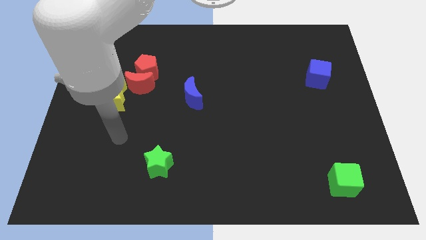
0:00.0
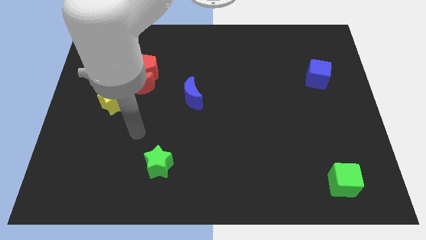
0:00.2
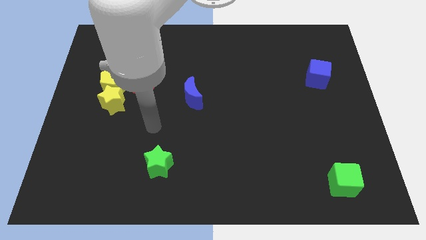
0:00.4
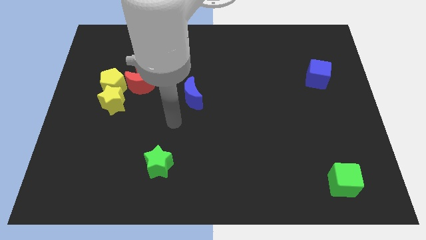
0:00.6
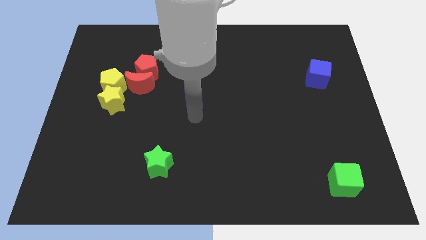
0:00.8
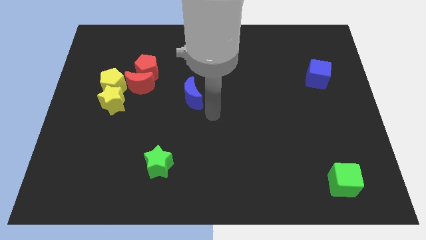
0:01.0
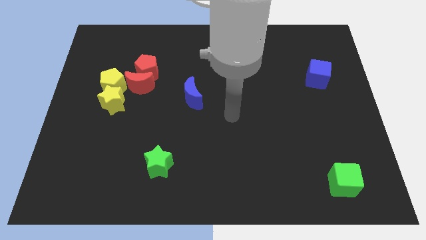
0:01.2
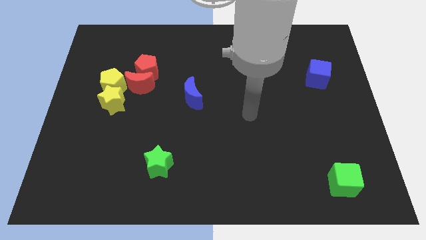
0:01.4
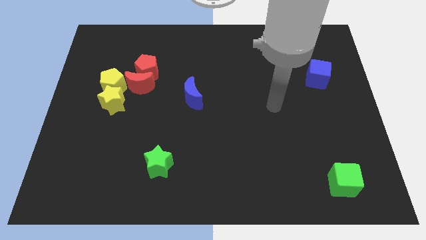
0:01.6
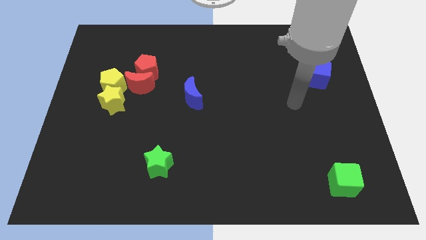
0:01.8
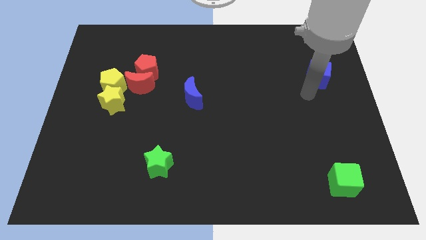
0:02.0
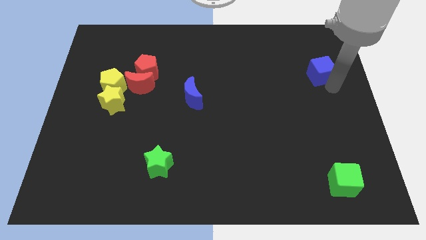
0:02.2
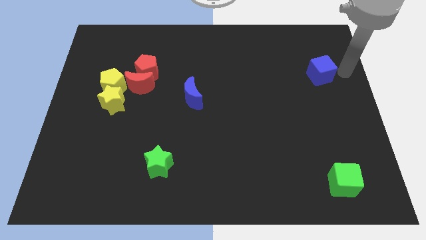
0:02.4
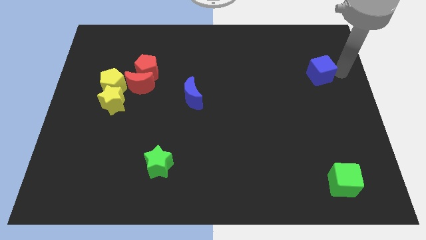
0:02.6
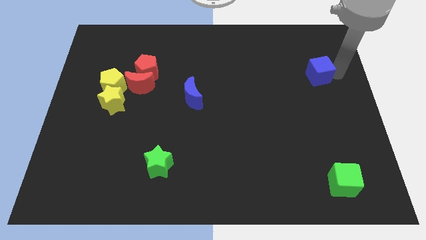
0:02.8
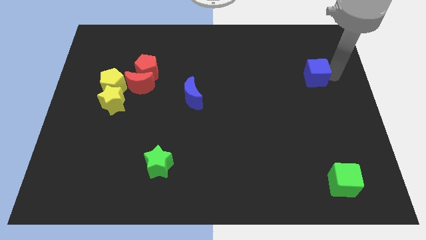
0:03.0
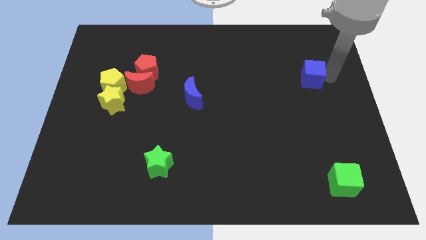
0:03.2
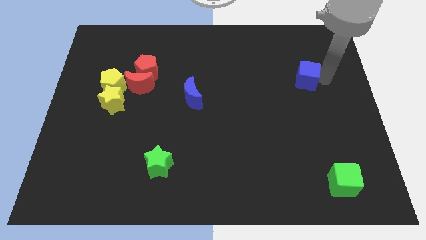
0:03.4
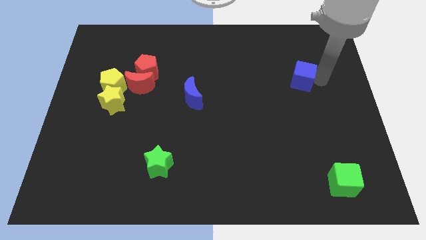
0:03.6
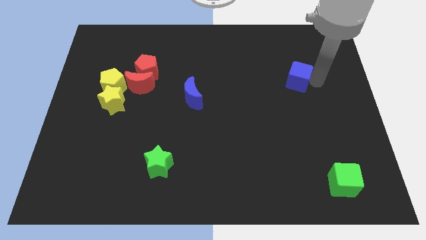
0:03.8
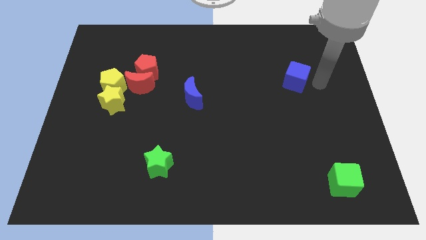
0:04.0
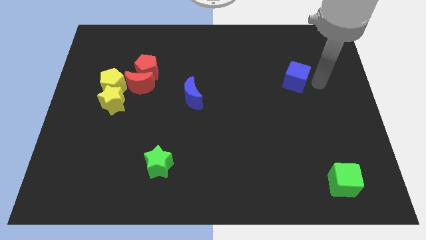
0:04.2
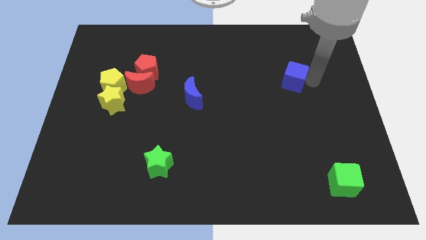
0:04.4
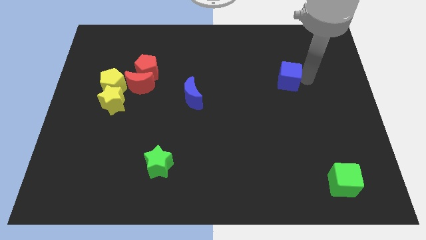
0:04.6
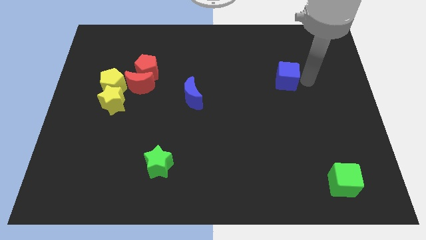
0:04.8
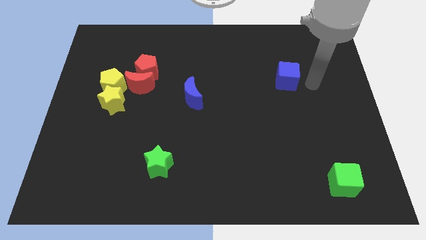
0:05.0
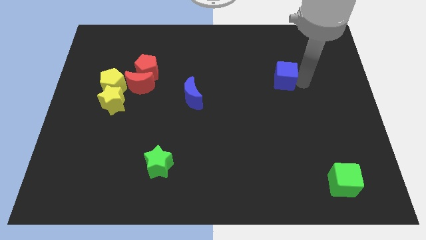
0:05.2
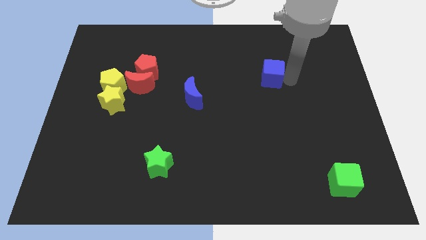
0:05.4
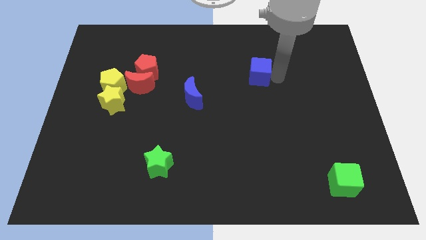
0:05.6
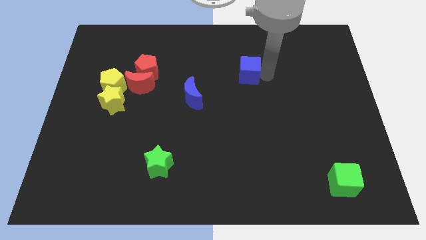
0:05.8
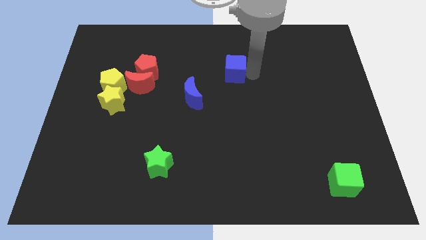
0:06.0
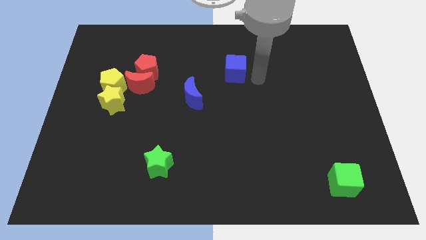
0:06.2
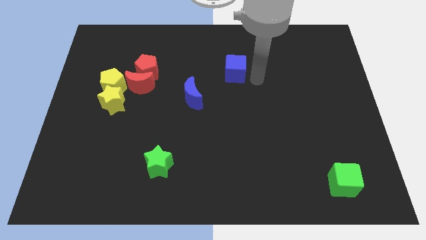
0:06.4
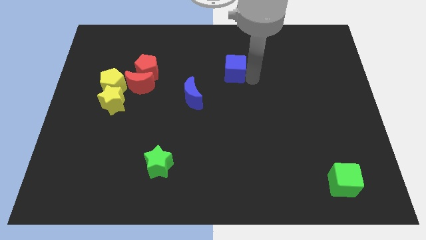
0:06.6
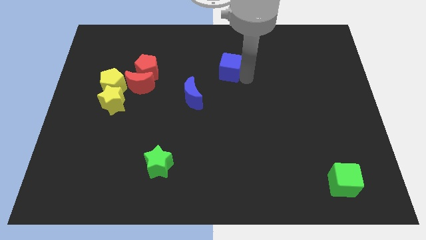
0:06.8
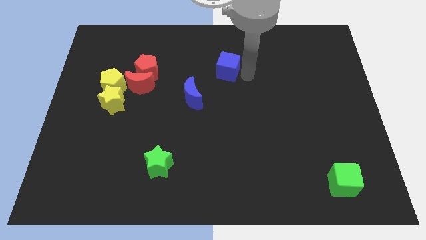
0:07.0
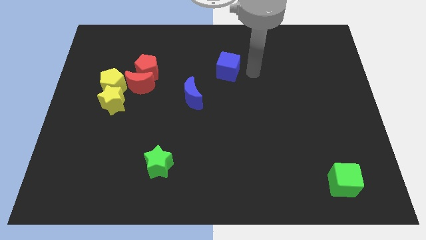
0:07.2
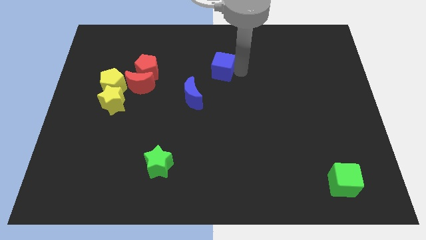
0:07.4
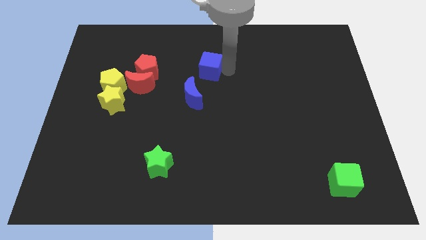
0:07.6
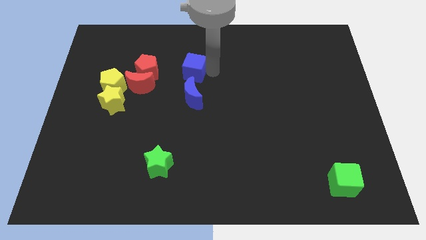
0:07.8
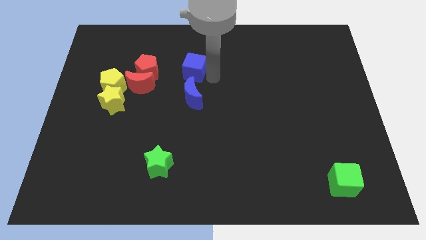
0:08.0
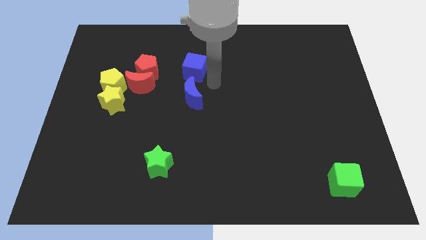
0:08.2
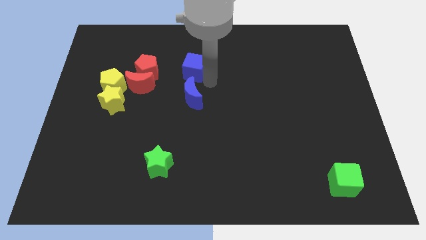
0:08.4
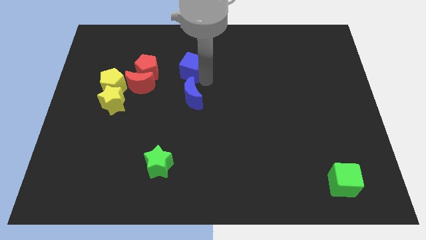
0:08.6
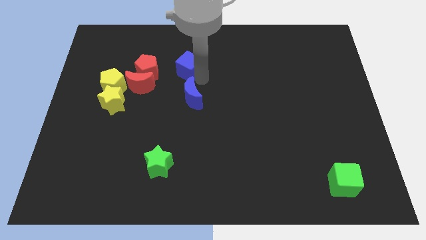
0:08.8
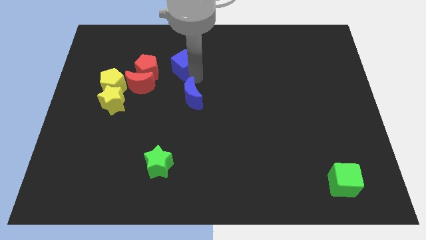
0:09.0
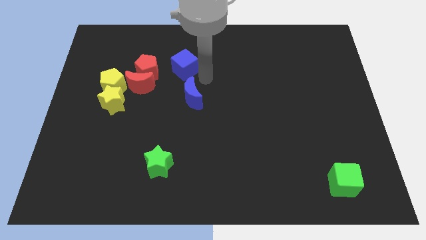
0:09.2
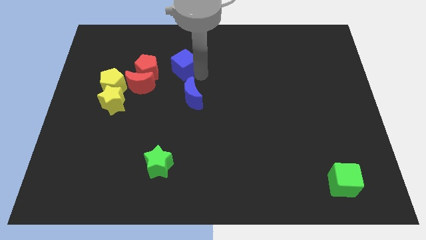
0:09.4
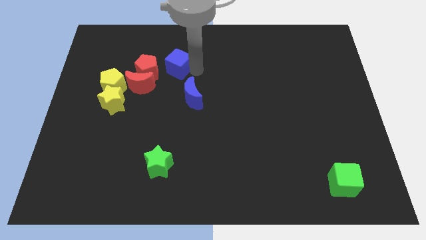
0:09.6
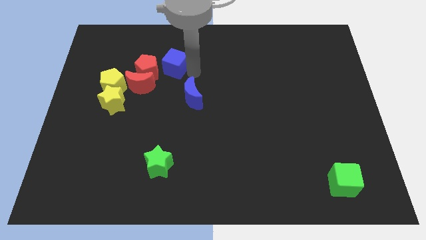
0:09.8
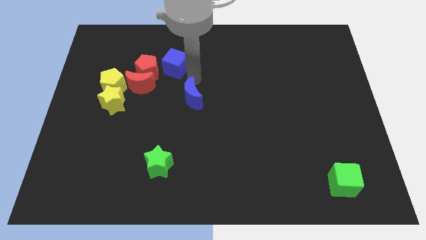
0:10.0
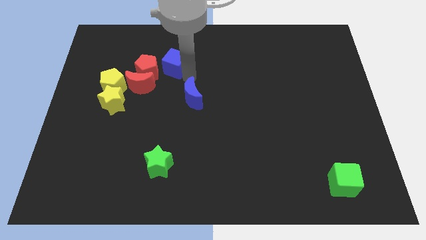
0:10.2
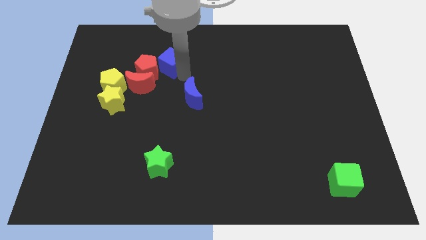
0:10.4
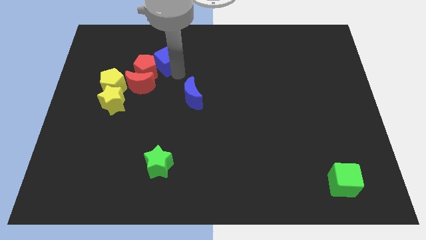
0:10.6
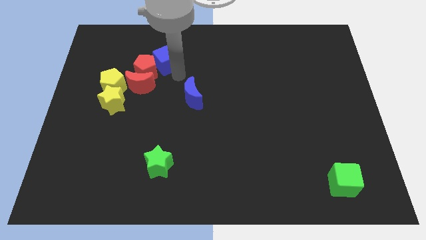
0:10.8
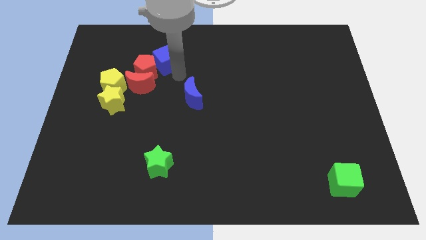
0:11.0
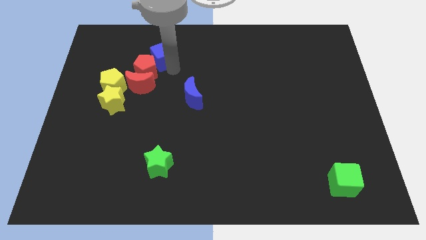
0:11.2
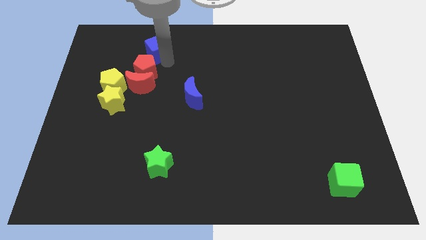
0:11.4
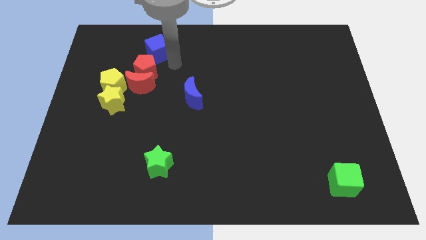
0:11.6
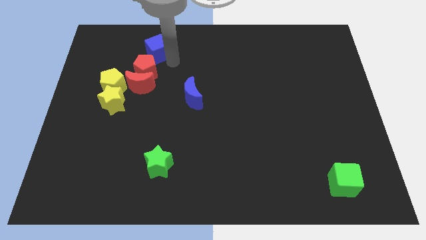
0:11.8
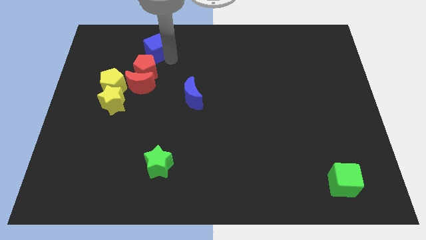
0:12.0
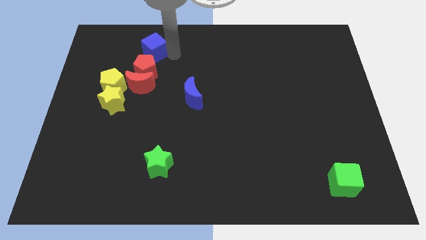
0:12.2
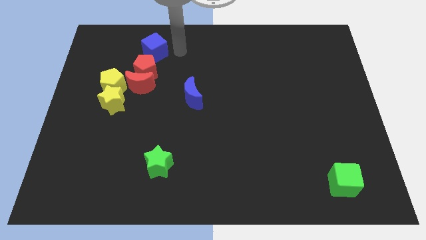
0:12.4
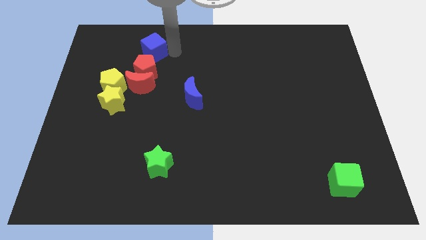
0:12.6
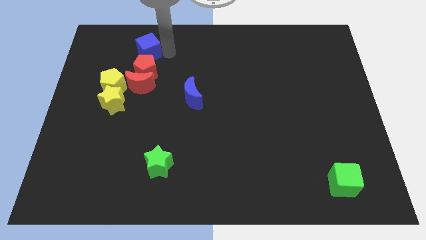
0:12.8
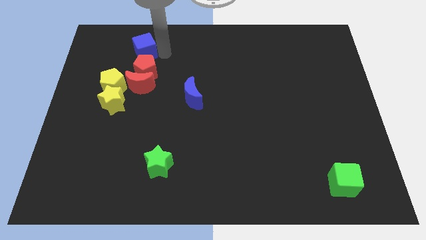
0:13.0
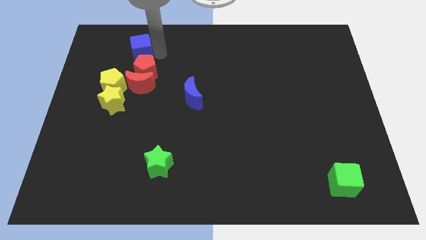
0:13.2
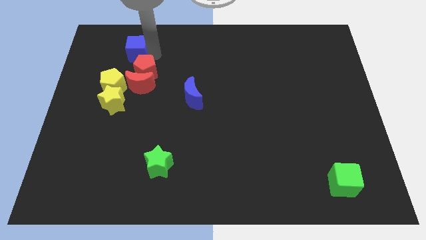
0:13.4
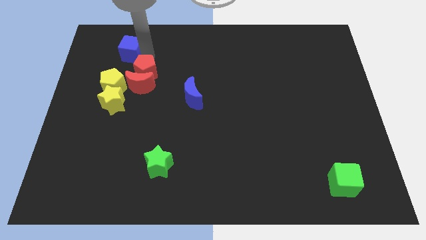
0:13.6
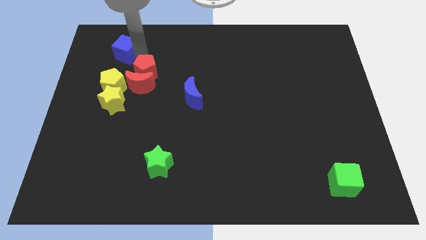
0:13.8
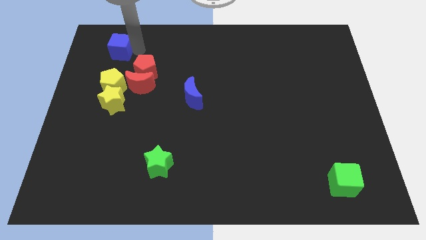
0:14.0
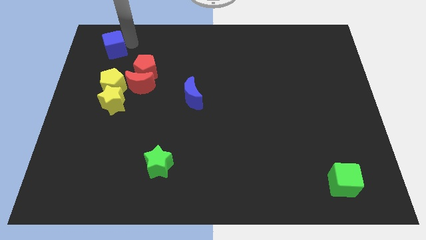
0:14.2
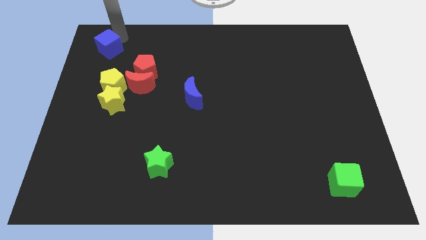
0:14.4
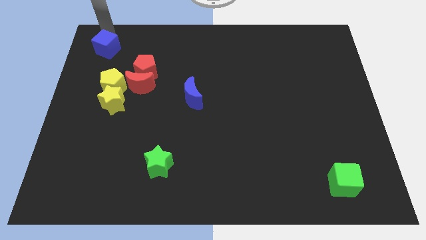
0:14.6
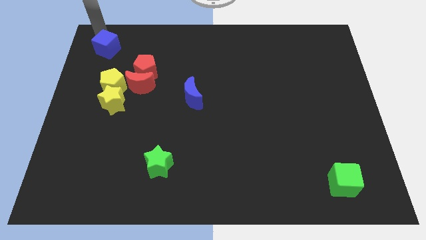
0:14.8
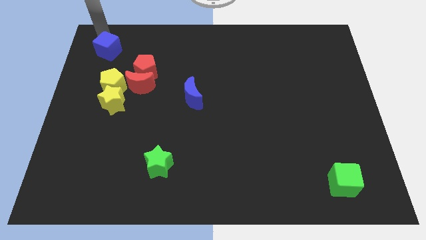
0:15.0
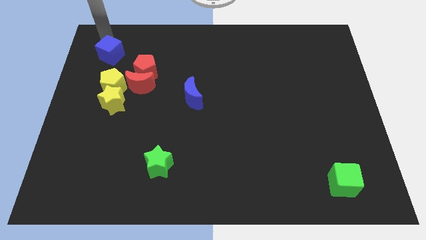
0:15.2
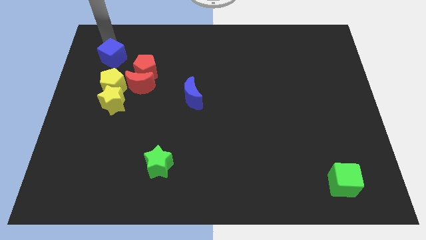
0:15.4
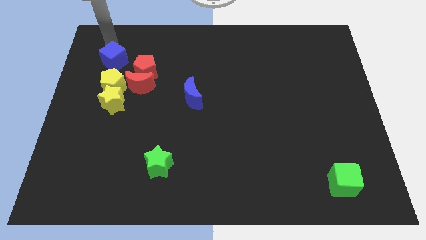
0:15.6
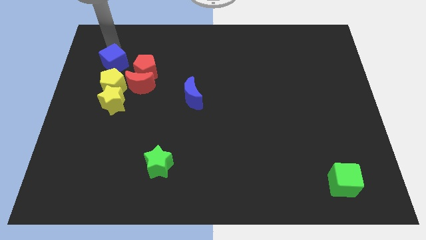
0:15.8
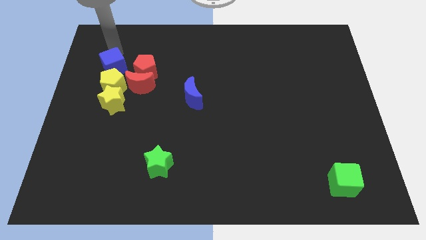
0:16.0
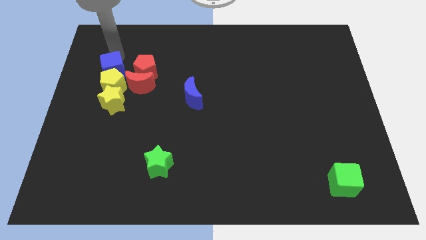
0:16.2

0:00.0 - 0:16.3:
move the blue cube to the yellow pentagon
